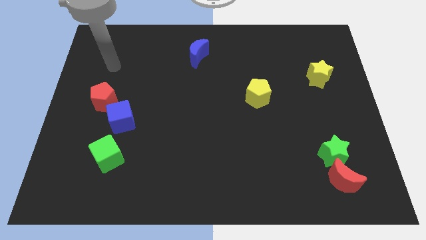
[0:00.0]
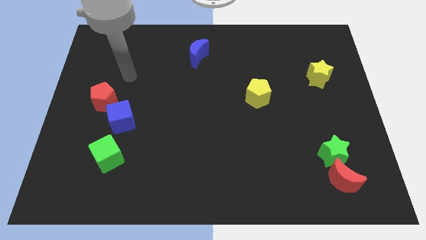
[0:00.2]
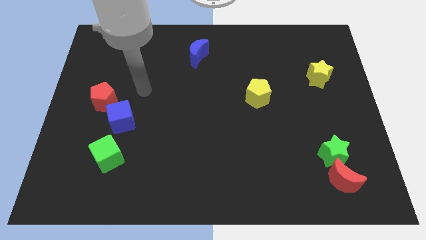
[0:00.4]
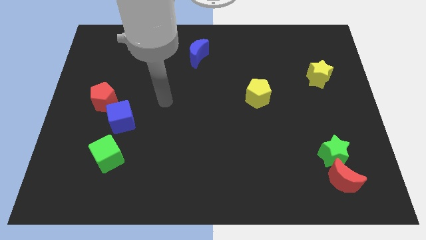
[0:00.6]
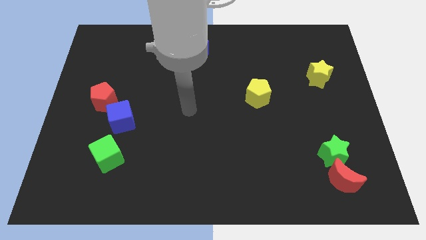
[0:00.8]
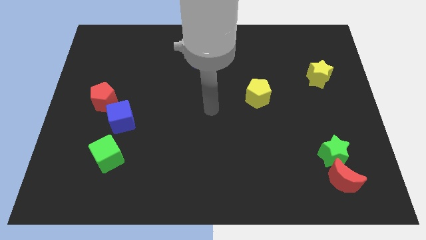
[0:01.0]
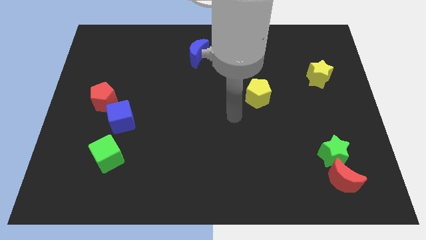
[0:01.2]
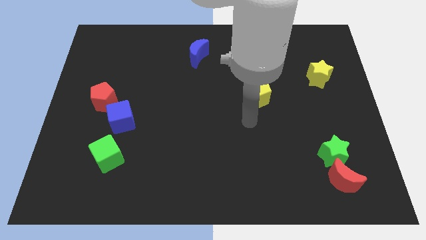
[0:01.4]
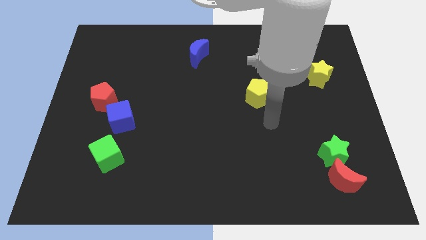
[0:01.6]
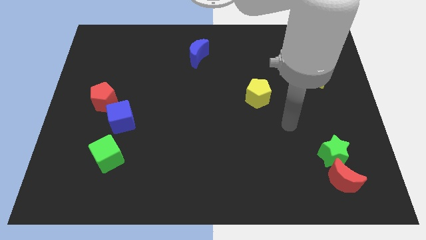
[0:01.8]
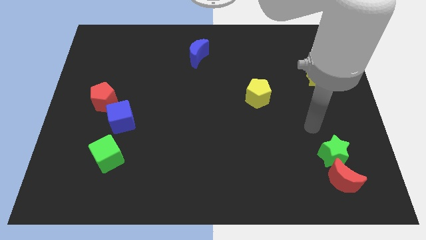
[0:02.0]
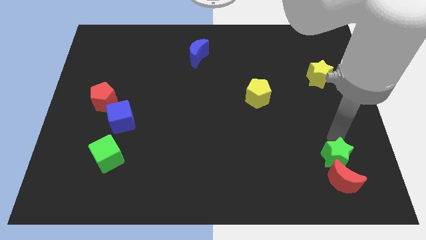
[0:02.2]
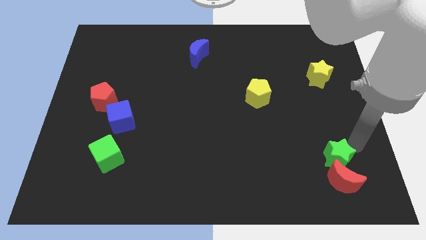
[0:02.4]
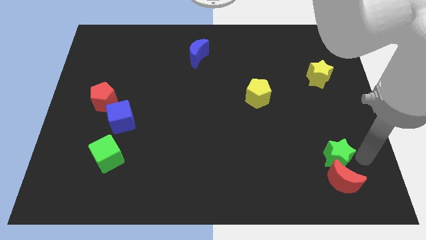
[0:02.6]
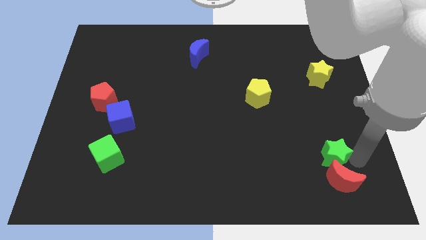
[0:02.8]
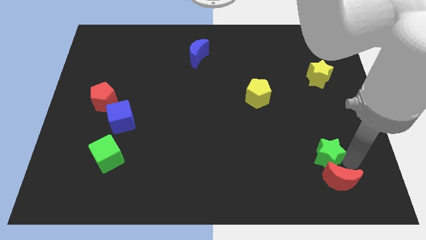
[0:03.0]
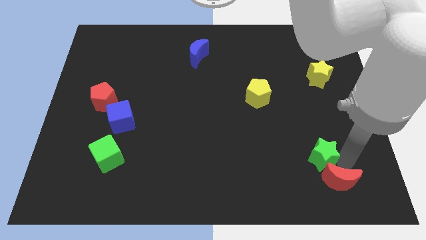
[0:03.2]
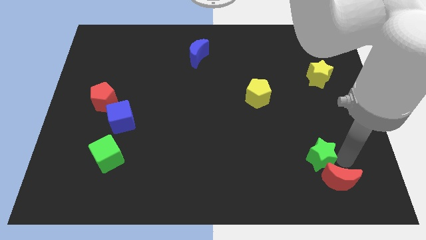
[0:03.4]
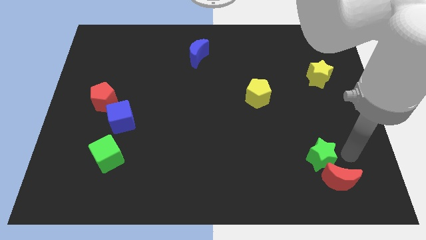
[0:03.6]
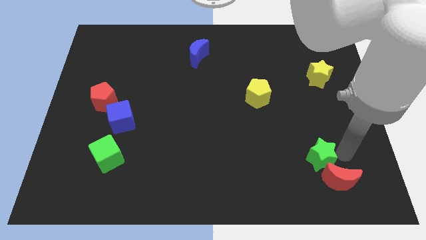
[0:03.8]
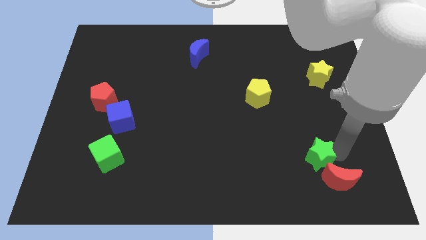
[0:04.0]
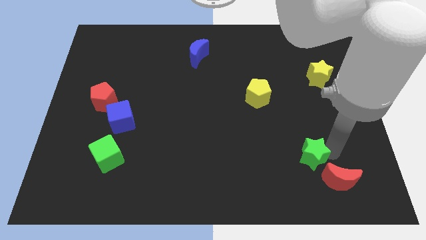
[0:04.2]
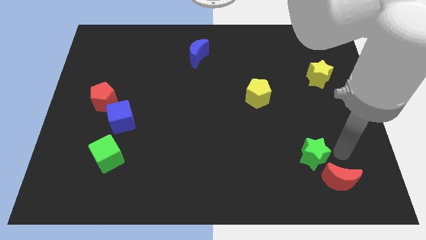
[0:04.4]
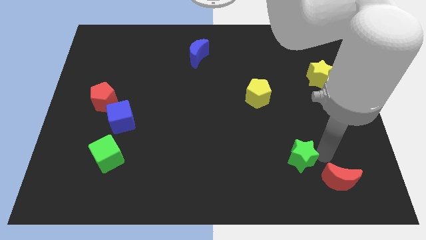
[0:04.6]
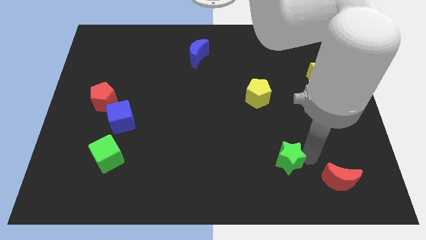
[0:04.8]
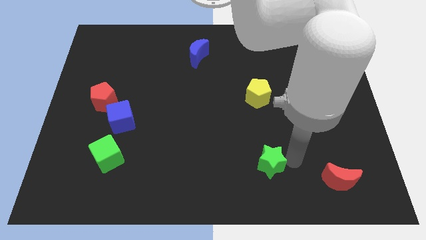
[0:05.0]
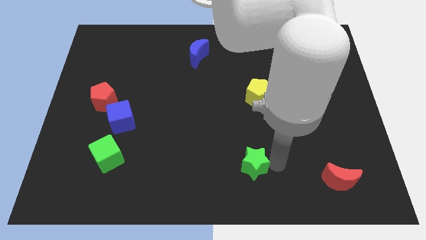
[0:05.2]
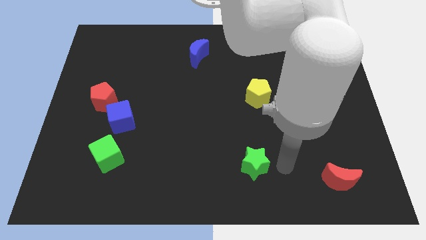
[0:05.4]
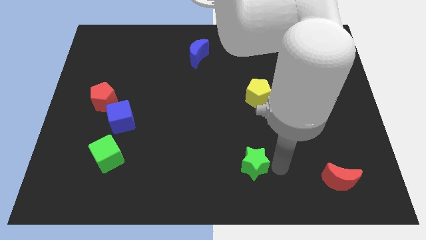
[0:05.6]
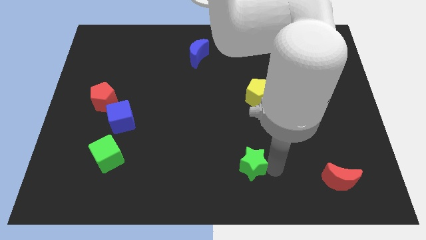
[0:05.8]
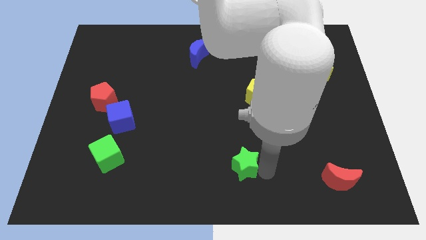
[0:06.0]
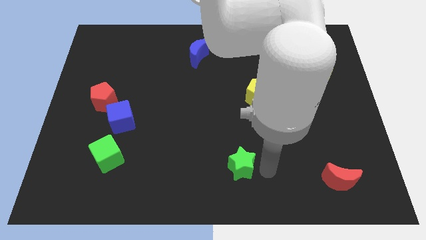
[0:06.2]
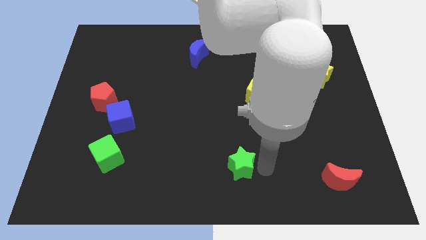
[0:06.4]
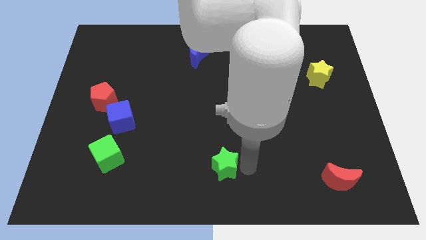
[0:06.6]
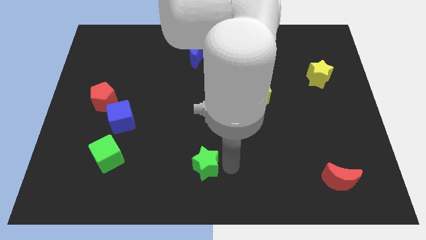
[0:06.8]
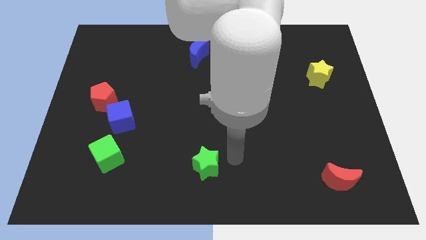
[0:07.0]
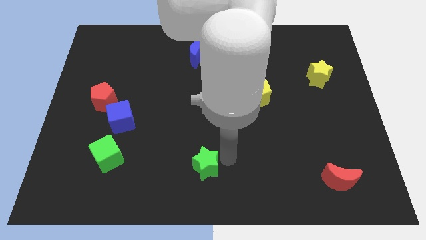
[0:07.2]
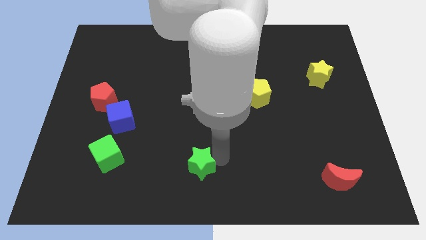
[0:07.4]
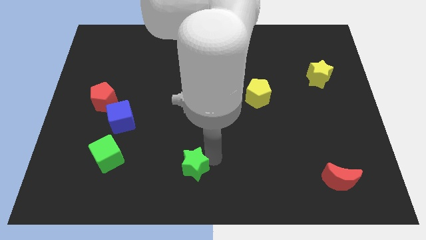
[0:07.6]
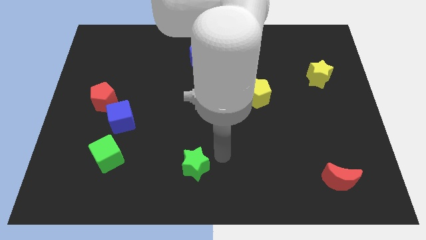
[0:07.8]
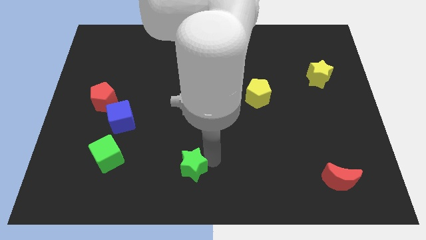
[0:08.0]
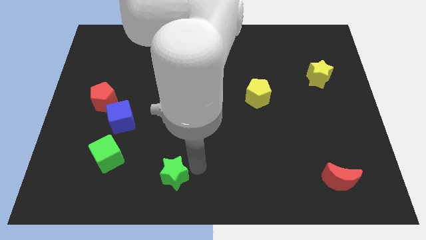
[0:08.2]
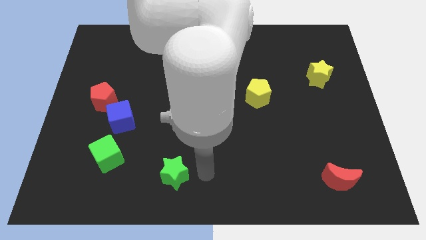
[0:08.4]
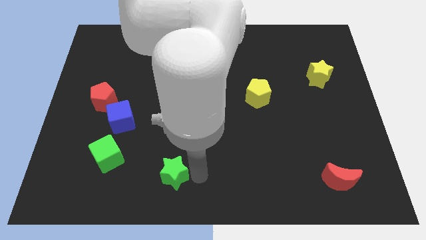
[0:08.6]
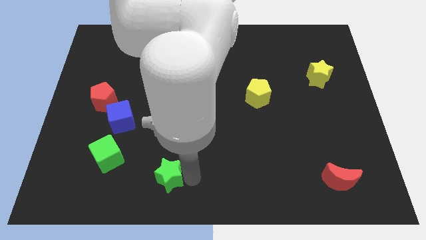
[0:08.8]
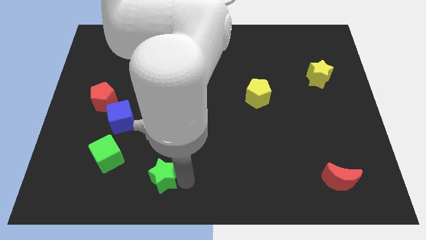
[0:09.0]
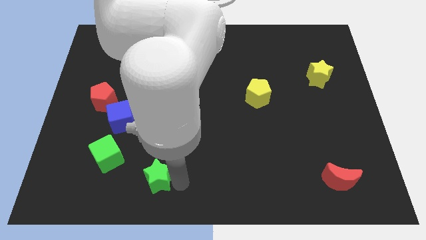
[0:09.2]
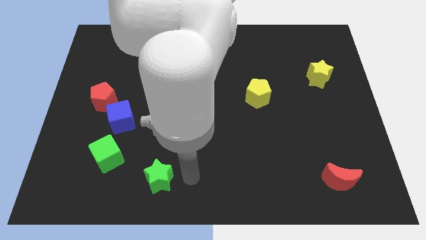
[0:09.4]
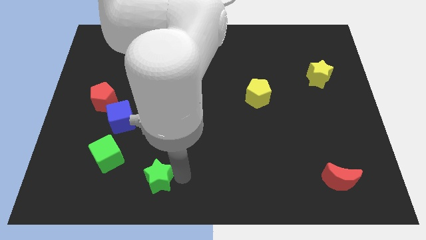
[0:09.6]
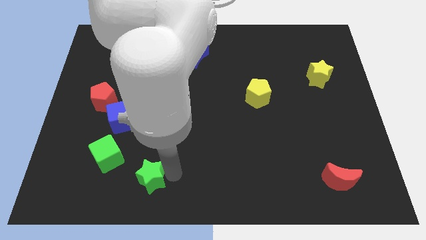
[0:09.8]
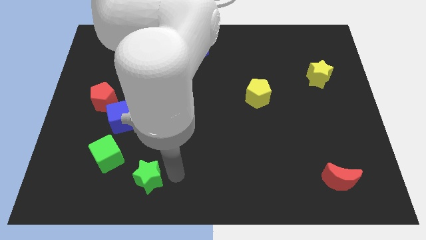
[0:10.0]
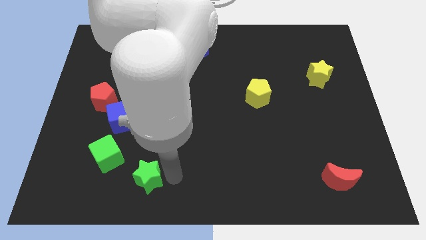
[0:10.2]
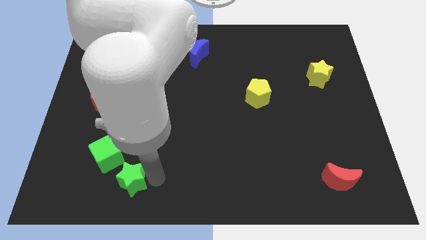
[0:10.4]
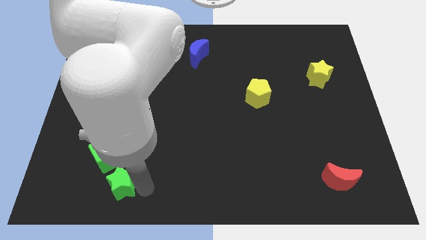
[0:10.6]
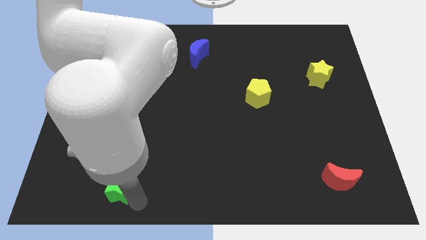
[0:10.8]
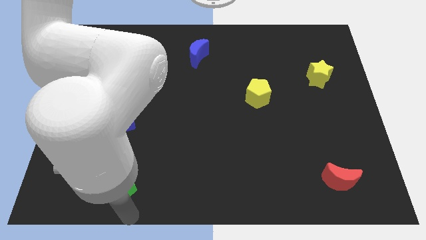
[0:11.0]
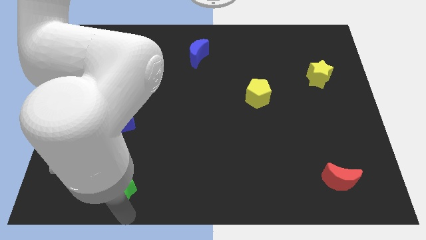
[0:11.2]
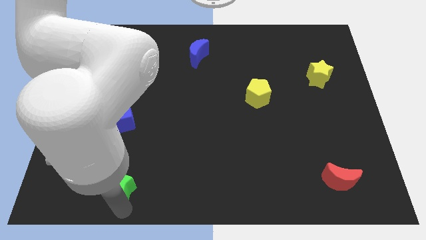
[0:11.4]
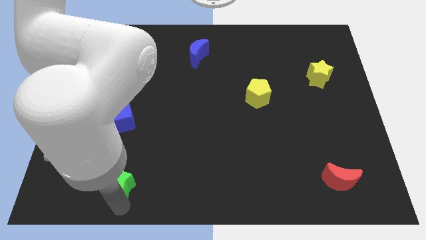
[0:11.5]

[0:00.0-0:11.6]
push the green star to the bottom of the blue cube
